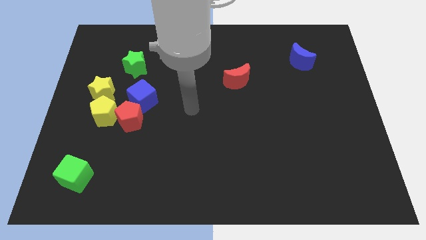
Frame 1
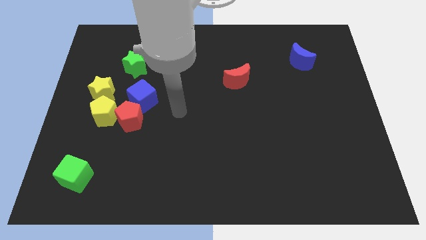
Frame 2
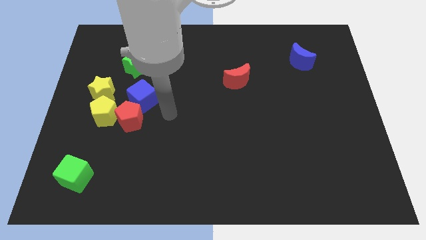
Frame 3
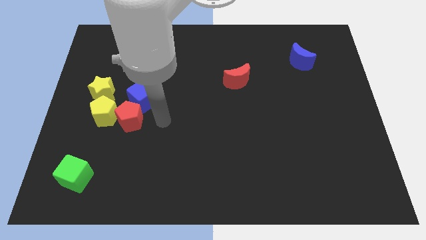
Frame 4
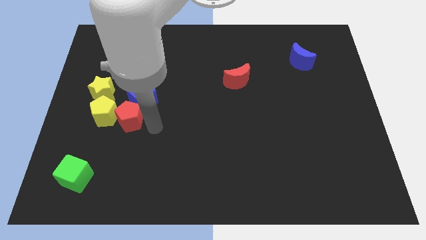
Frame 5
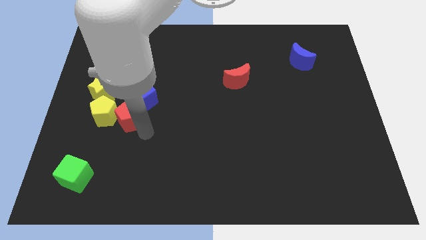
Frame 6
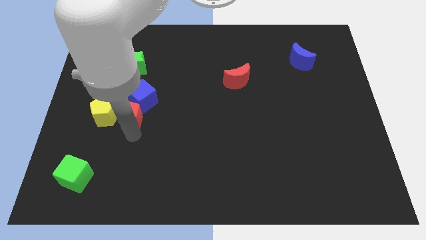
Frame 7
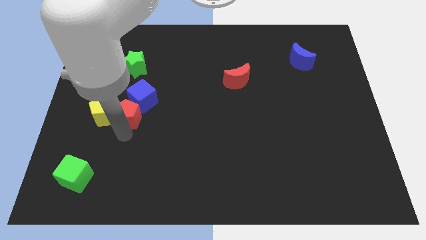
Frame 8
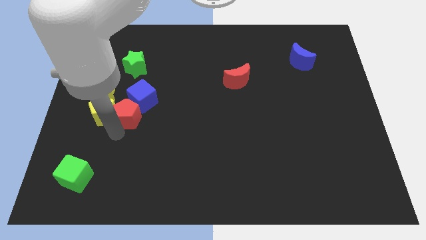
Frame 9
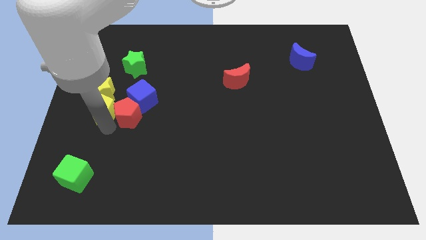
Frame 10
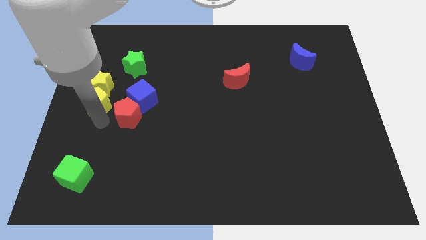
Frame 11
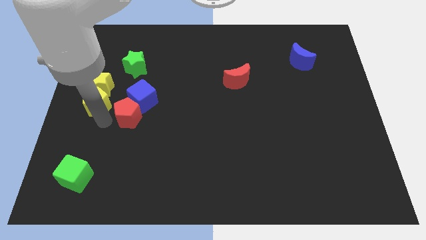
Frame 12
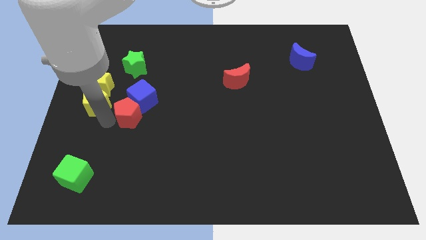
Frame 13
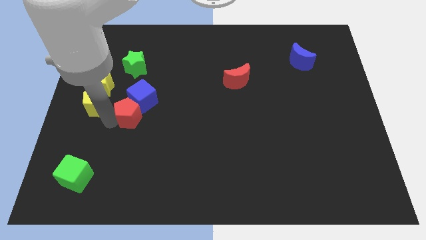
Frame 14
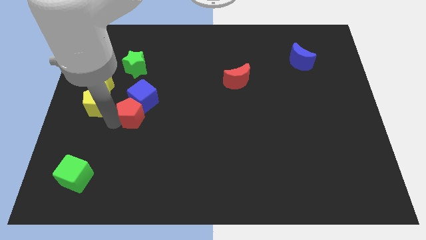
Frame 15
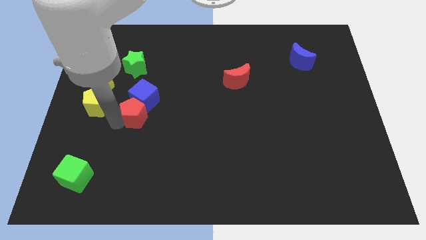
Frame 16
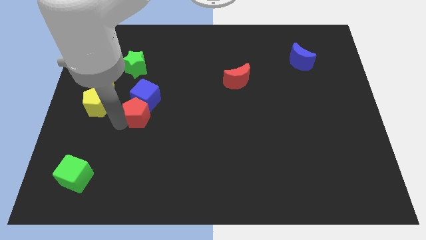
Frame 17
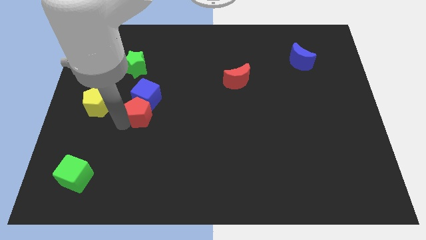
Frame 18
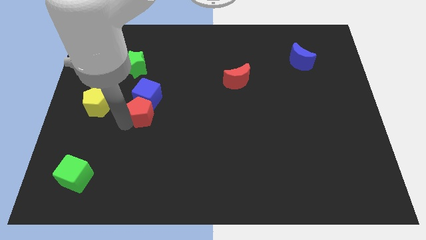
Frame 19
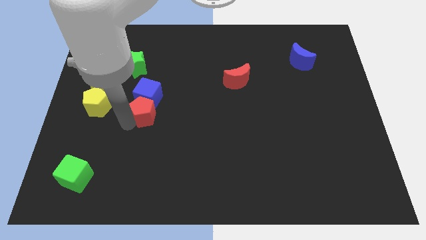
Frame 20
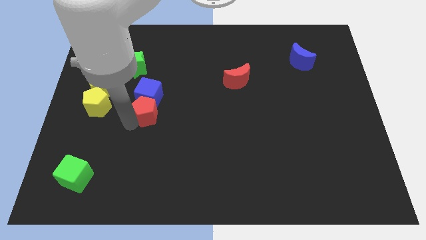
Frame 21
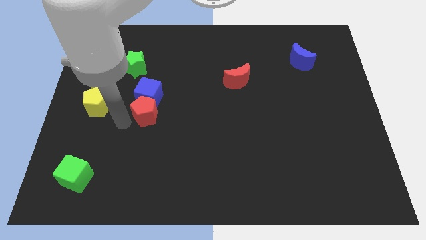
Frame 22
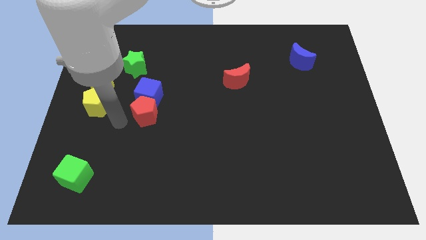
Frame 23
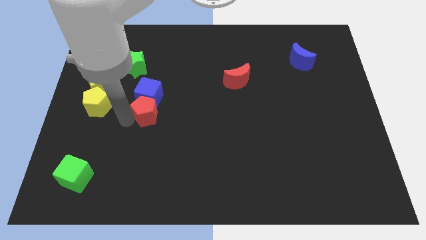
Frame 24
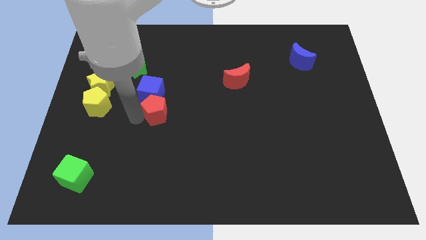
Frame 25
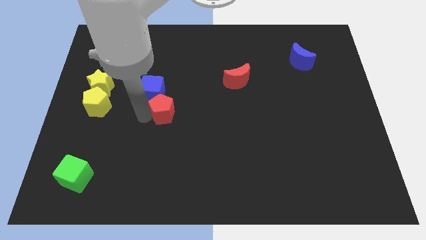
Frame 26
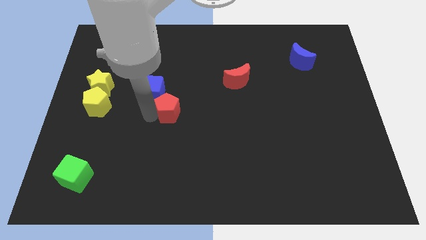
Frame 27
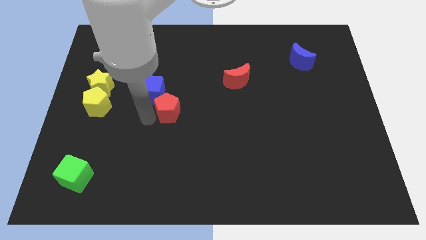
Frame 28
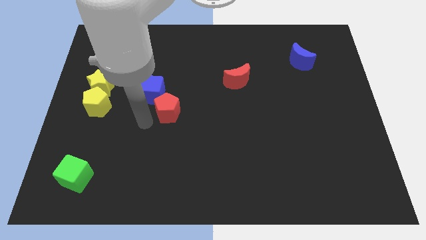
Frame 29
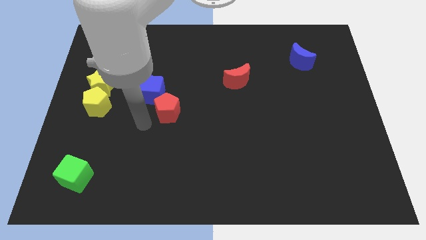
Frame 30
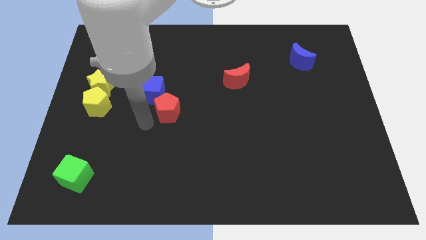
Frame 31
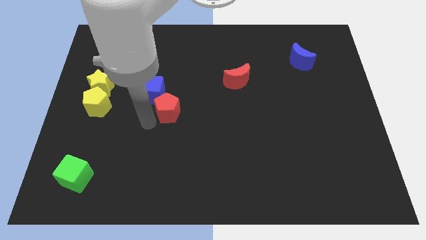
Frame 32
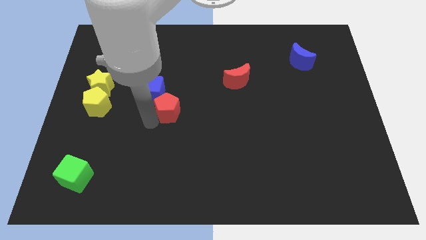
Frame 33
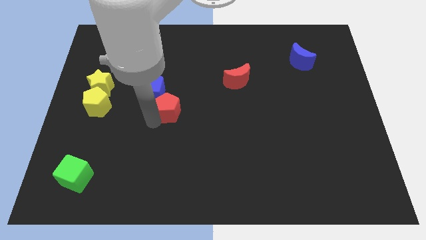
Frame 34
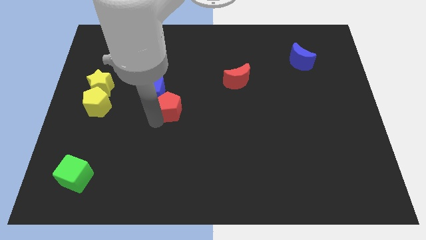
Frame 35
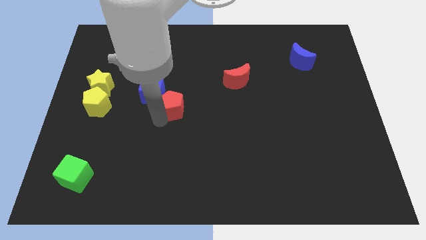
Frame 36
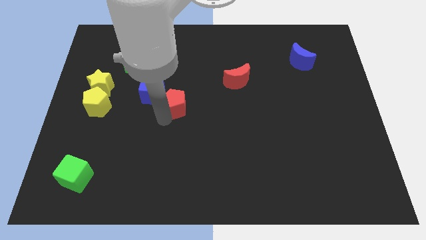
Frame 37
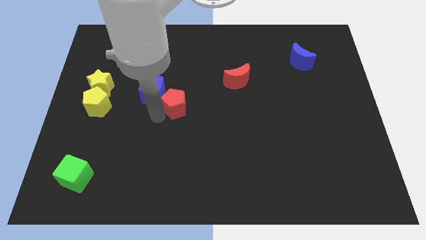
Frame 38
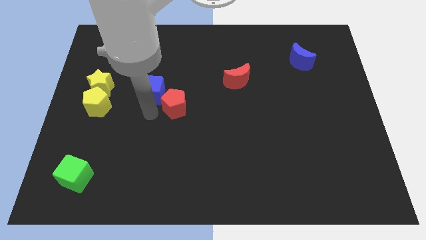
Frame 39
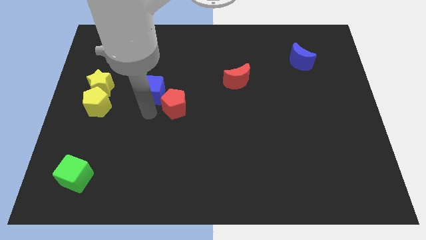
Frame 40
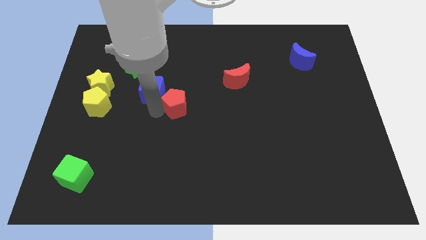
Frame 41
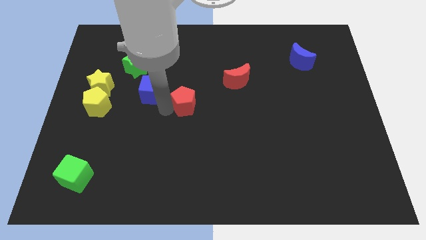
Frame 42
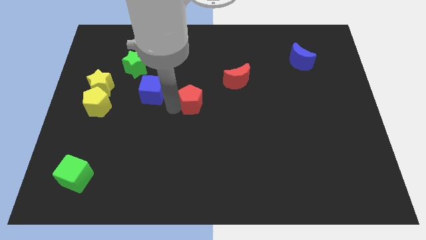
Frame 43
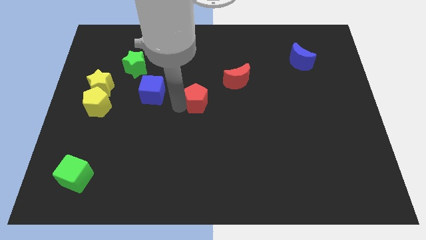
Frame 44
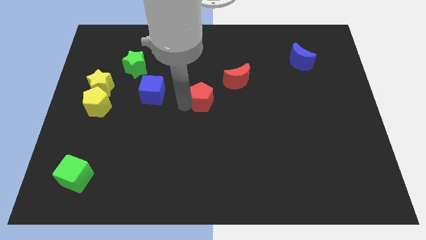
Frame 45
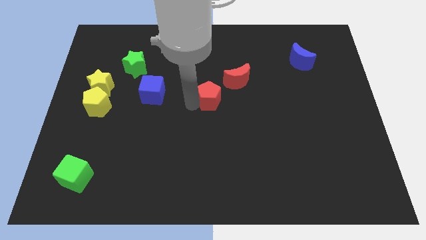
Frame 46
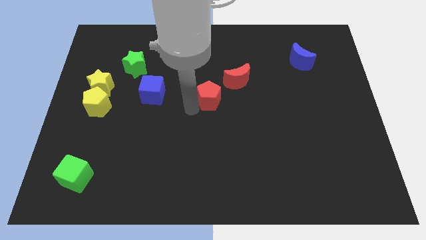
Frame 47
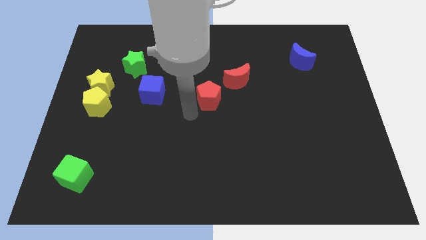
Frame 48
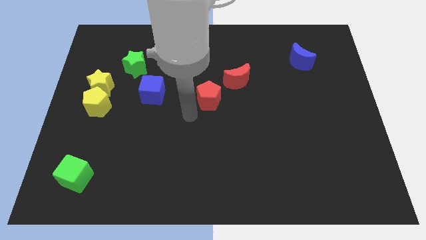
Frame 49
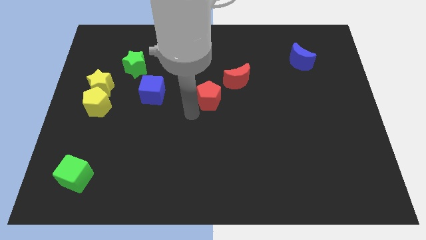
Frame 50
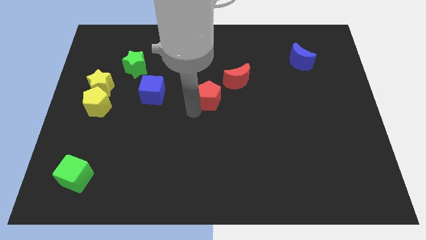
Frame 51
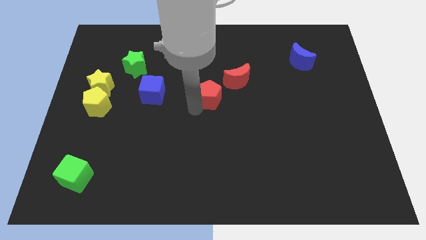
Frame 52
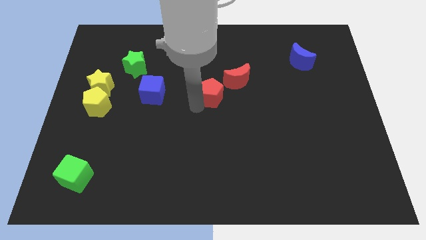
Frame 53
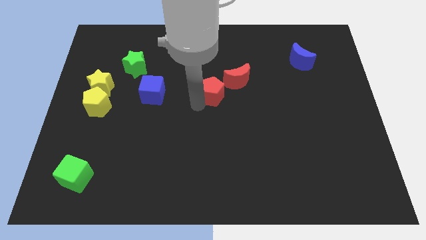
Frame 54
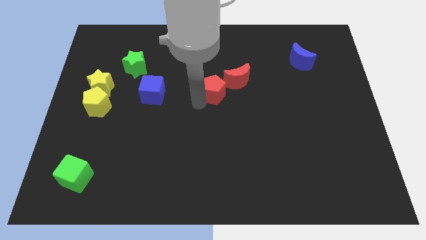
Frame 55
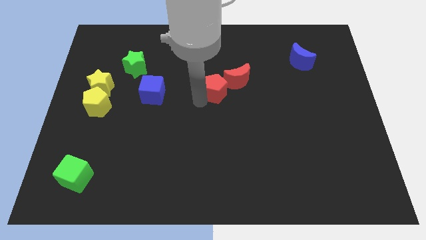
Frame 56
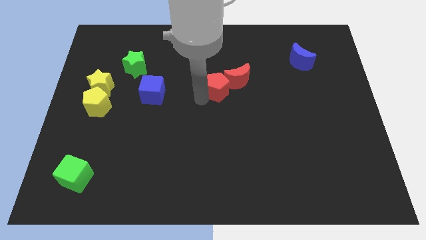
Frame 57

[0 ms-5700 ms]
put the red pentagon towards the red moon

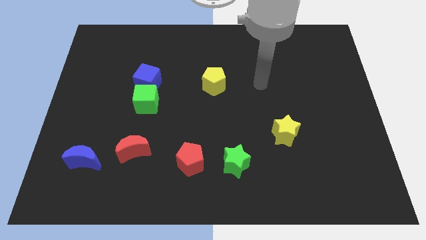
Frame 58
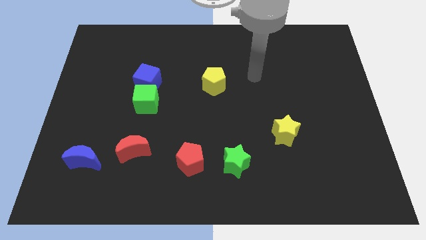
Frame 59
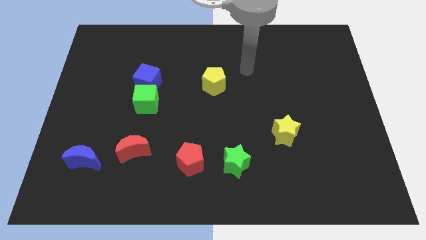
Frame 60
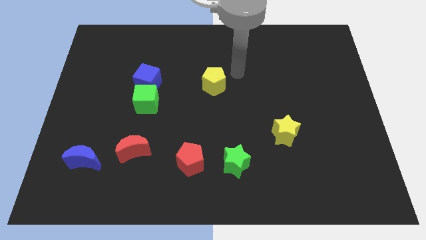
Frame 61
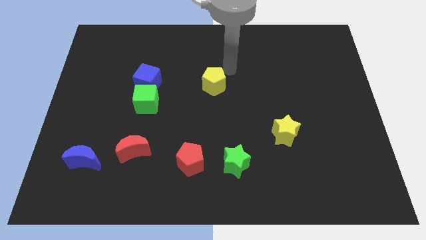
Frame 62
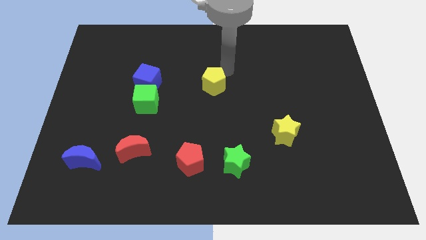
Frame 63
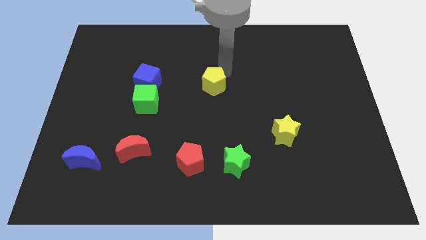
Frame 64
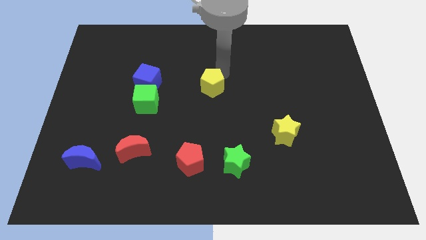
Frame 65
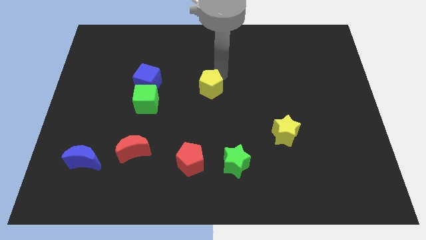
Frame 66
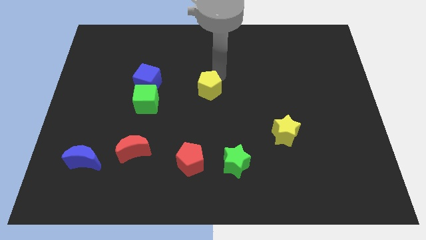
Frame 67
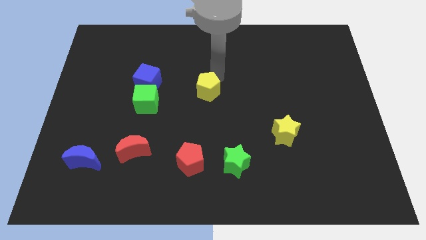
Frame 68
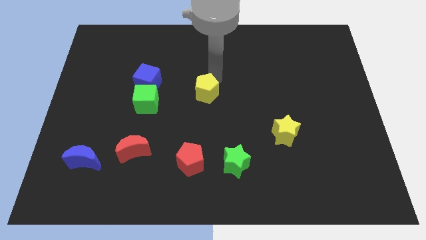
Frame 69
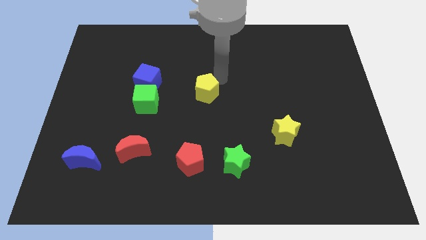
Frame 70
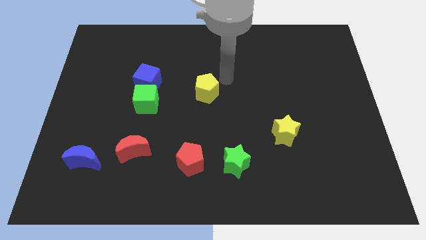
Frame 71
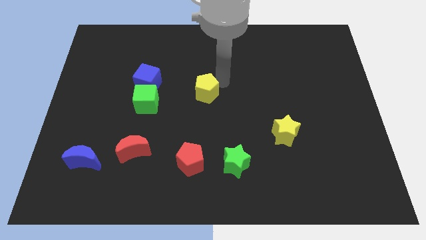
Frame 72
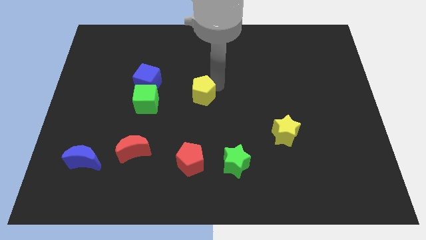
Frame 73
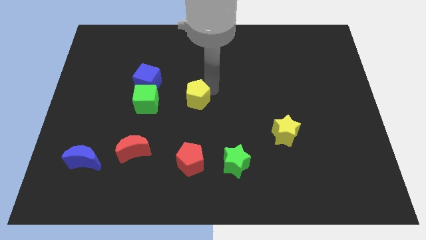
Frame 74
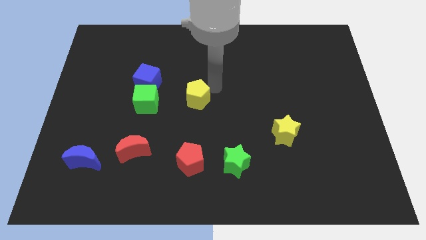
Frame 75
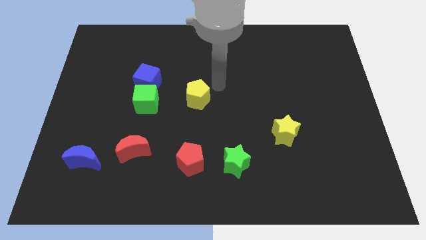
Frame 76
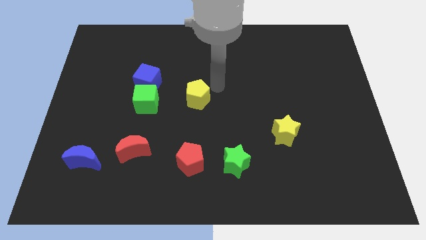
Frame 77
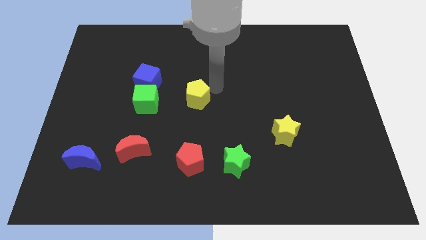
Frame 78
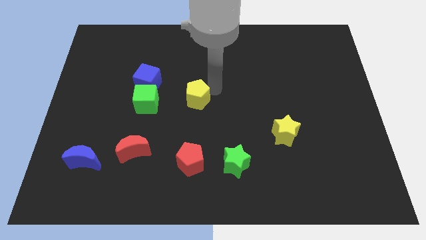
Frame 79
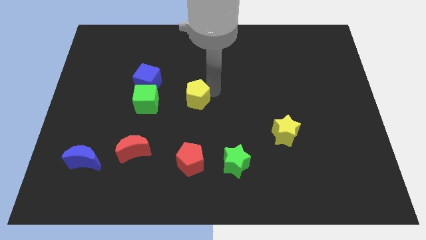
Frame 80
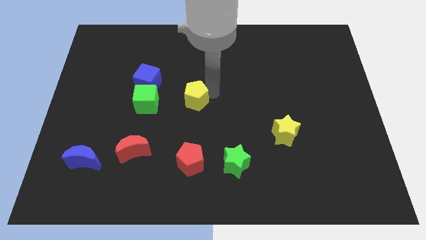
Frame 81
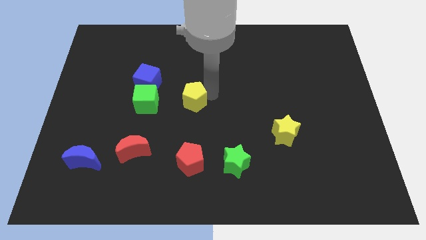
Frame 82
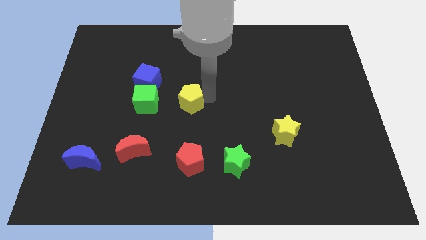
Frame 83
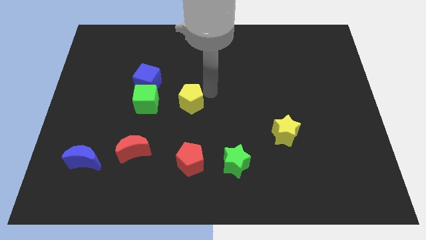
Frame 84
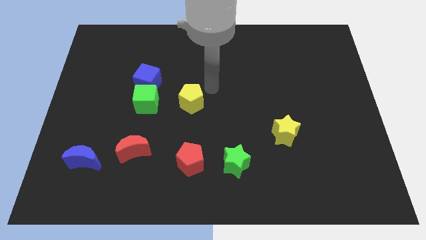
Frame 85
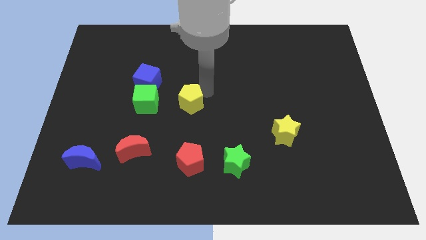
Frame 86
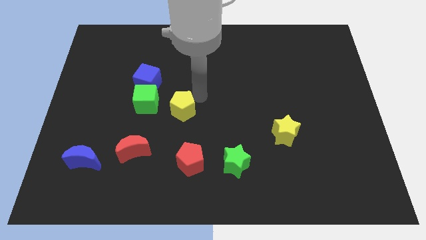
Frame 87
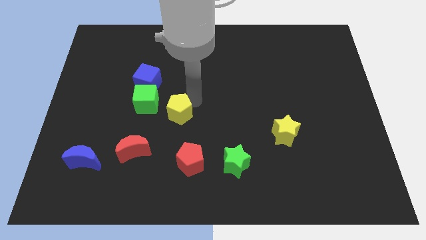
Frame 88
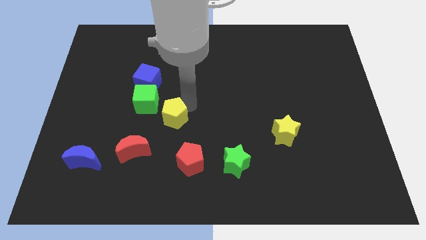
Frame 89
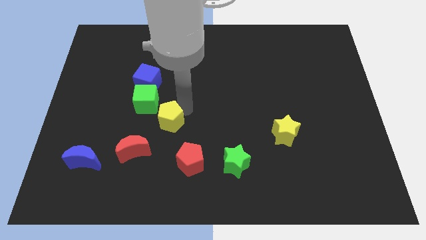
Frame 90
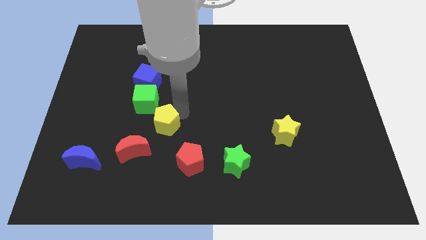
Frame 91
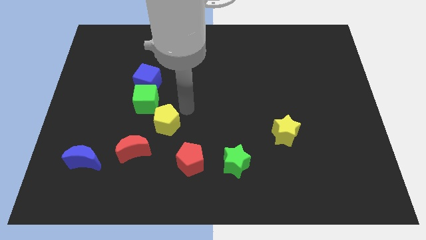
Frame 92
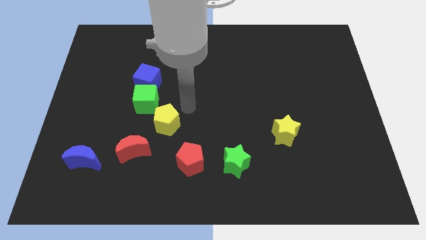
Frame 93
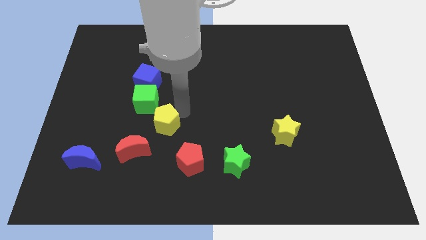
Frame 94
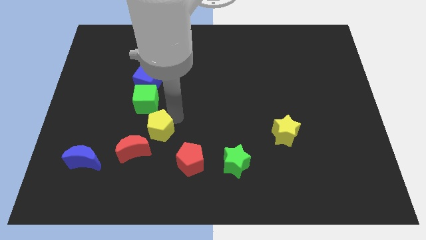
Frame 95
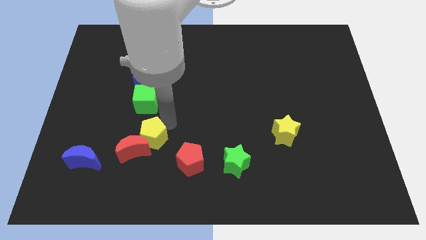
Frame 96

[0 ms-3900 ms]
push the yellow pentagon close to the red moon
